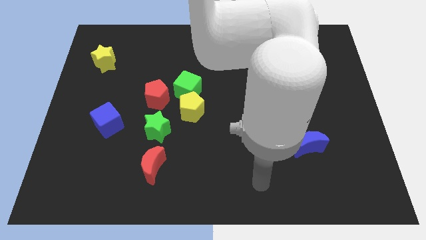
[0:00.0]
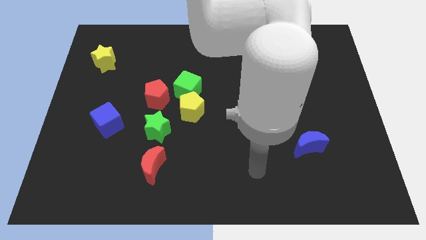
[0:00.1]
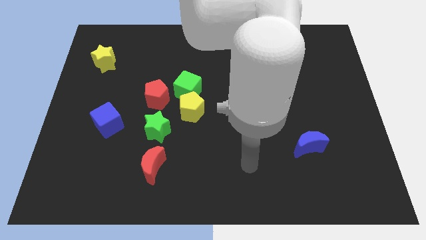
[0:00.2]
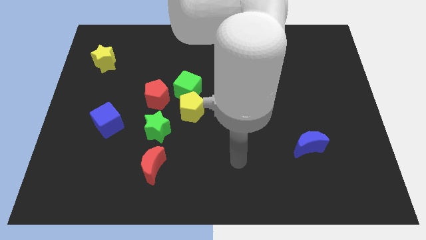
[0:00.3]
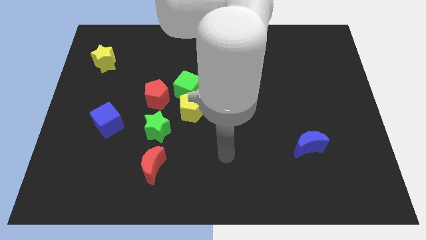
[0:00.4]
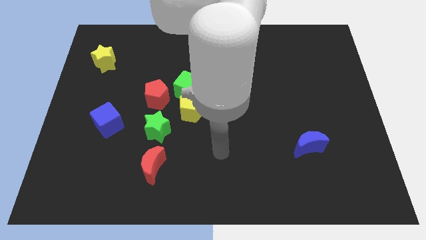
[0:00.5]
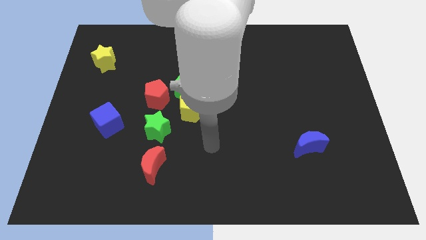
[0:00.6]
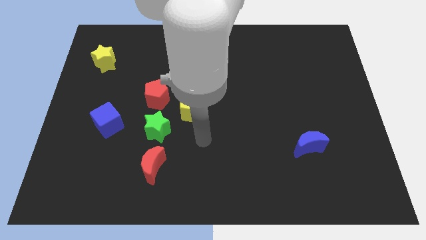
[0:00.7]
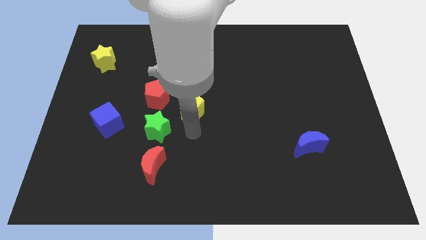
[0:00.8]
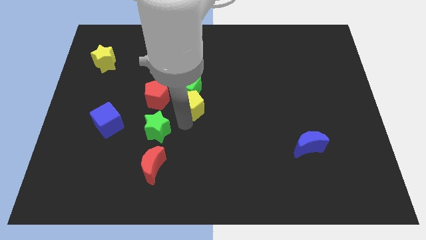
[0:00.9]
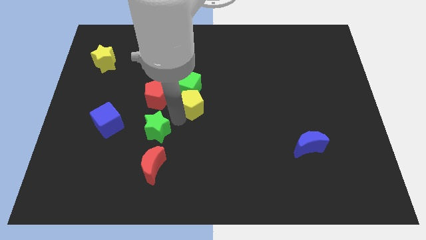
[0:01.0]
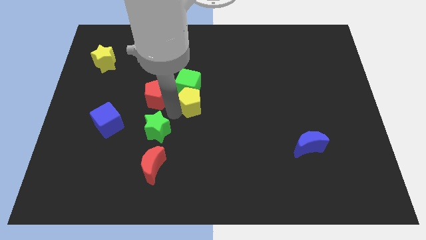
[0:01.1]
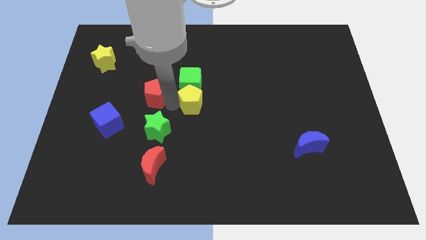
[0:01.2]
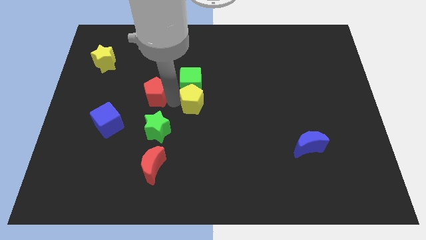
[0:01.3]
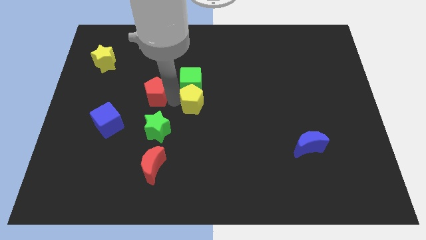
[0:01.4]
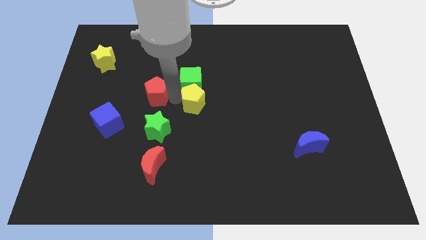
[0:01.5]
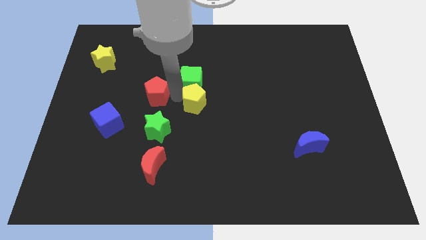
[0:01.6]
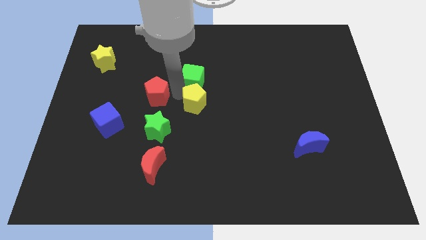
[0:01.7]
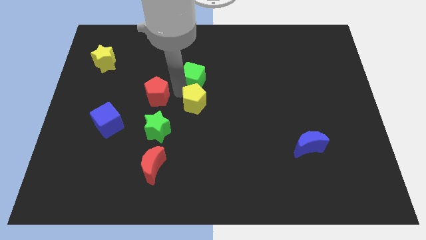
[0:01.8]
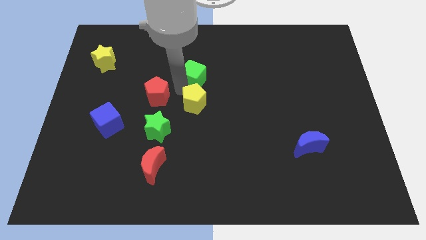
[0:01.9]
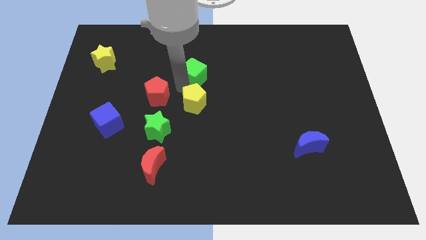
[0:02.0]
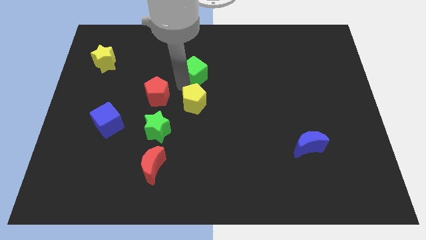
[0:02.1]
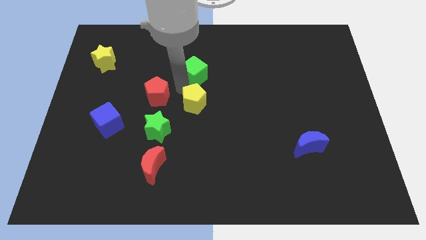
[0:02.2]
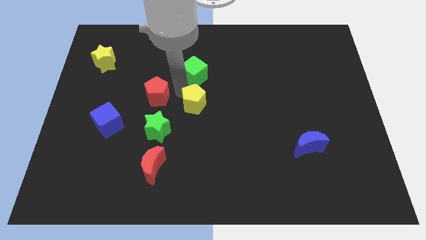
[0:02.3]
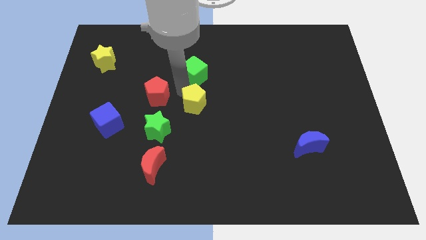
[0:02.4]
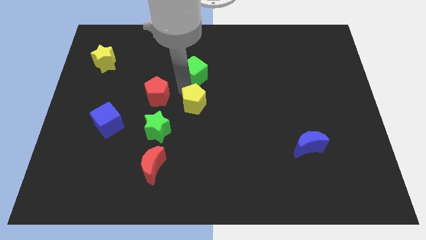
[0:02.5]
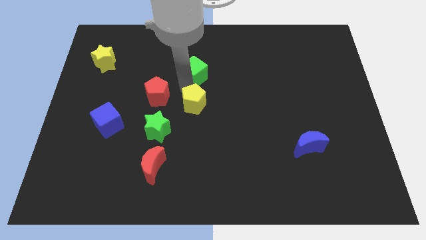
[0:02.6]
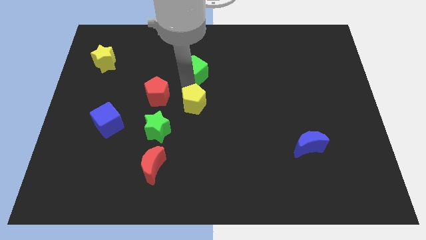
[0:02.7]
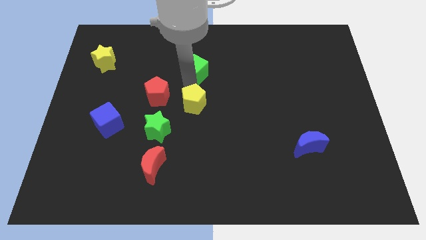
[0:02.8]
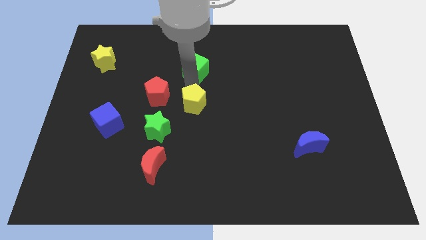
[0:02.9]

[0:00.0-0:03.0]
pull the green cube apart from the yellow pentagon and red pentagon

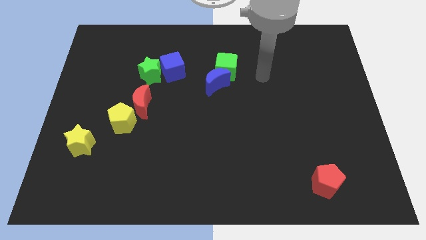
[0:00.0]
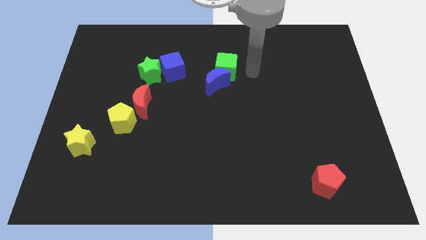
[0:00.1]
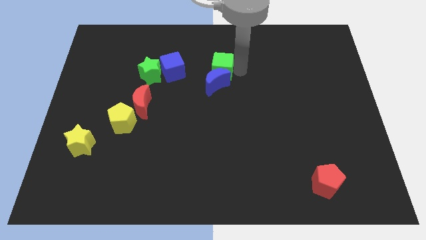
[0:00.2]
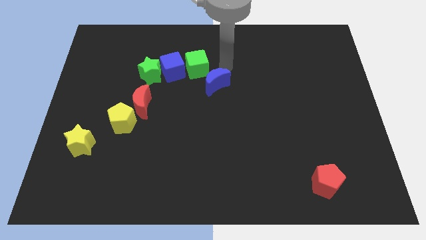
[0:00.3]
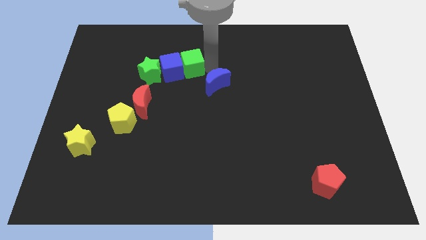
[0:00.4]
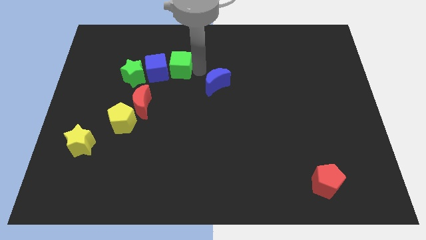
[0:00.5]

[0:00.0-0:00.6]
pull the blue moon apart from the green cube

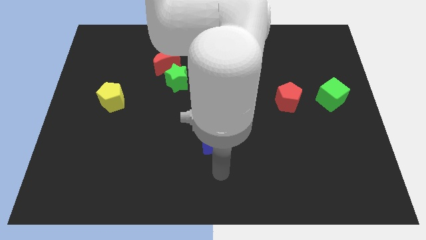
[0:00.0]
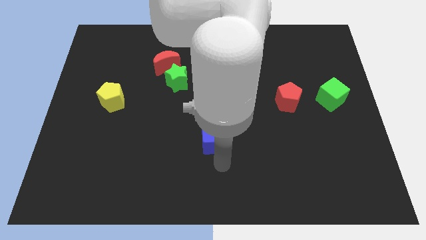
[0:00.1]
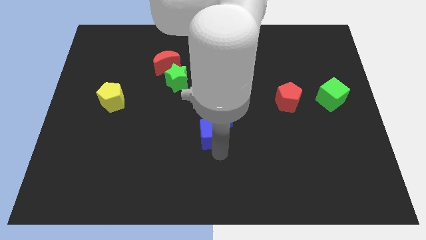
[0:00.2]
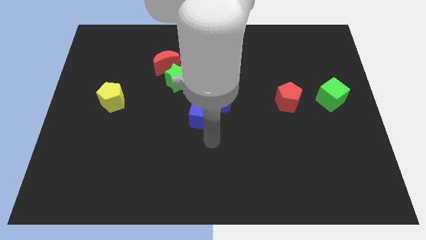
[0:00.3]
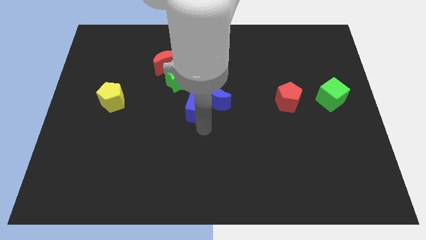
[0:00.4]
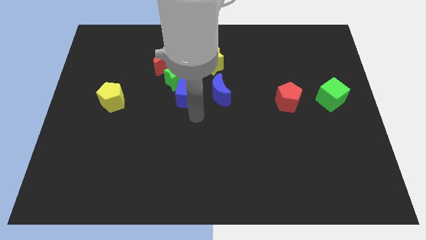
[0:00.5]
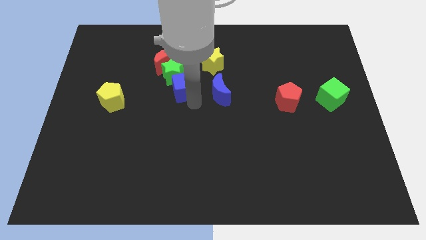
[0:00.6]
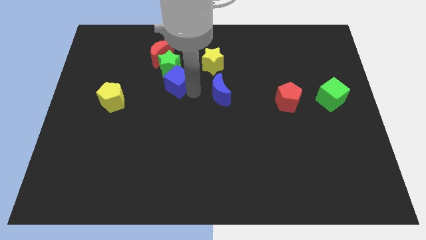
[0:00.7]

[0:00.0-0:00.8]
pull the blue moon apart from the blue cube

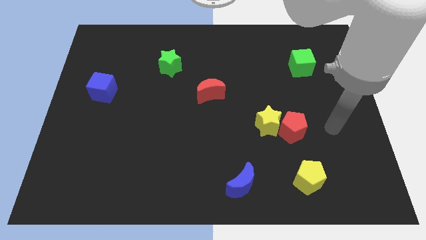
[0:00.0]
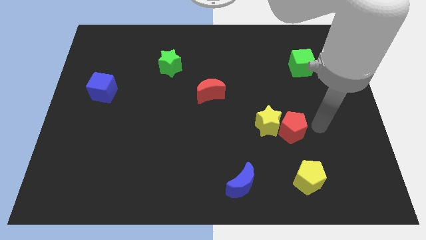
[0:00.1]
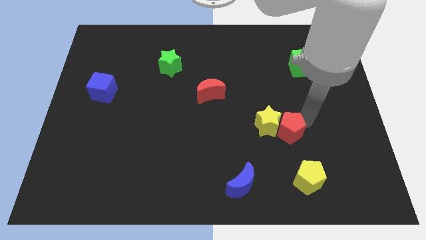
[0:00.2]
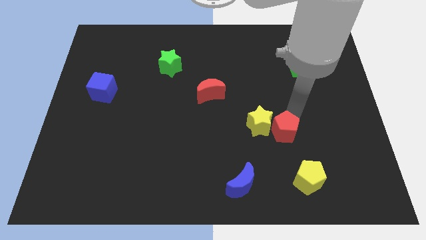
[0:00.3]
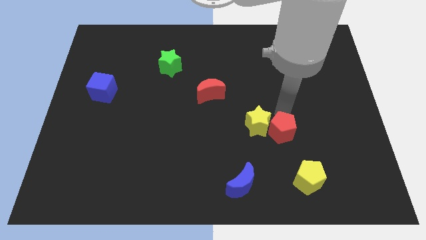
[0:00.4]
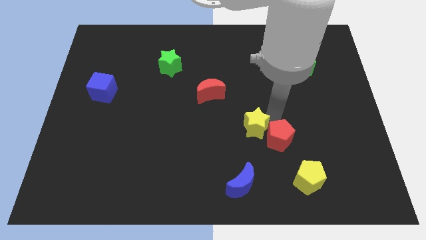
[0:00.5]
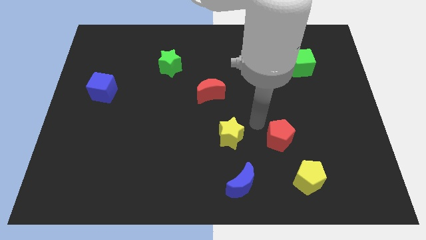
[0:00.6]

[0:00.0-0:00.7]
move the red pentagon away from the yellow star

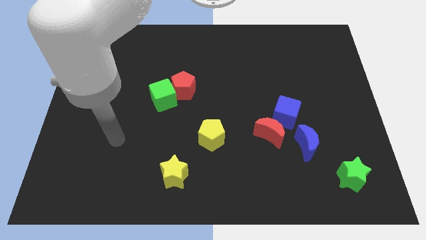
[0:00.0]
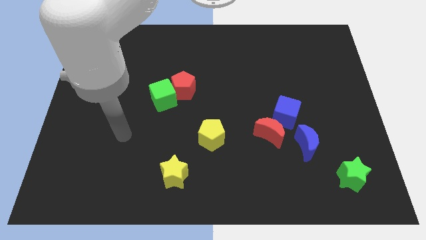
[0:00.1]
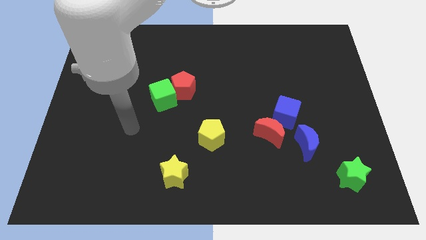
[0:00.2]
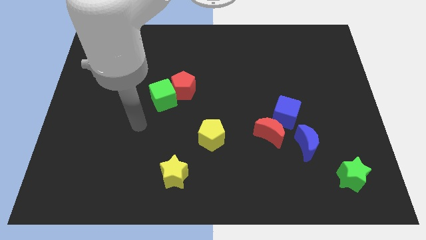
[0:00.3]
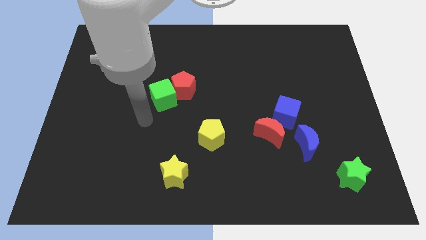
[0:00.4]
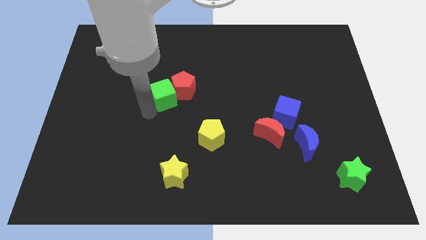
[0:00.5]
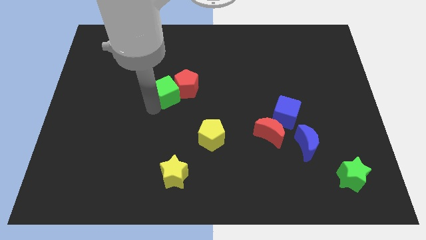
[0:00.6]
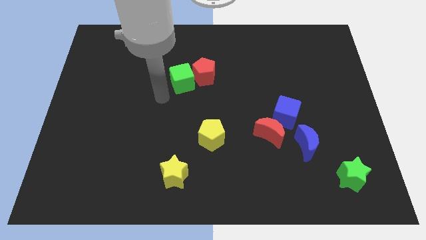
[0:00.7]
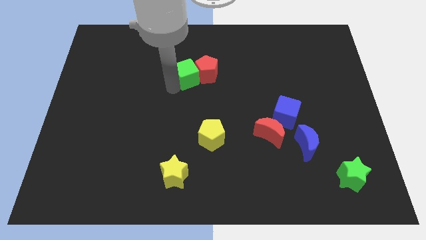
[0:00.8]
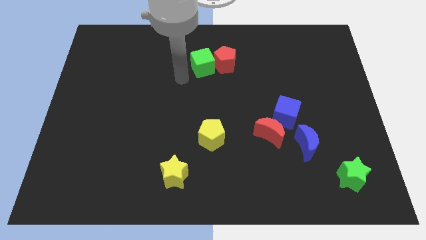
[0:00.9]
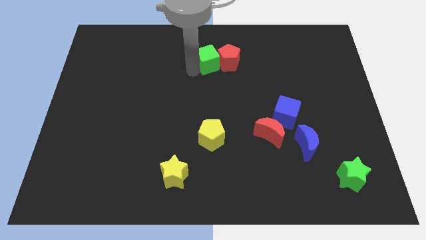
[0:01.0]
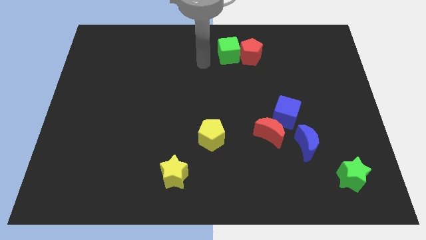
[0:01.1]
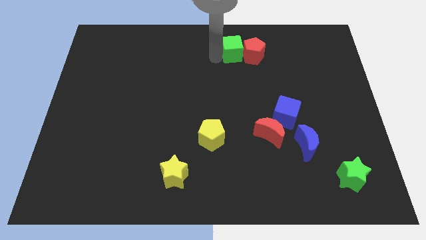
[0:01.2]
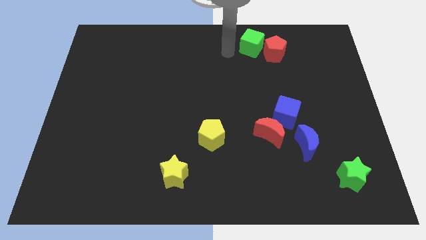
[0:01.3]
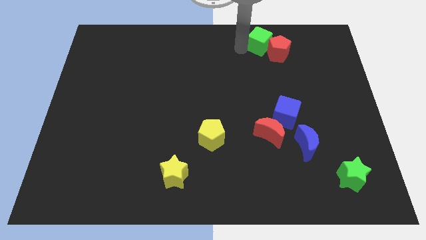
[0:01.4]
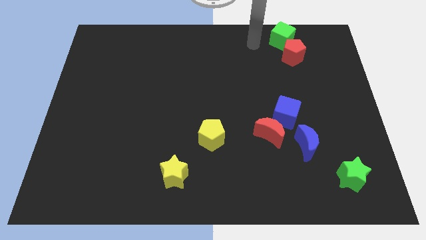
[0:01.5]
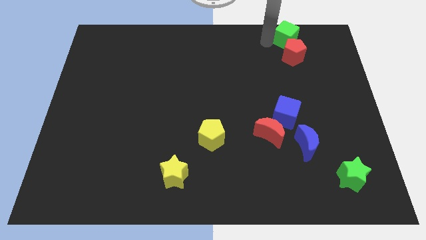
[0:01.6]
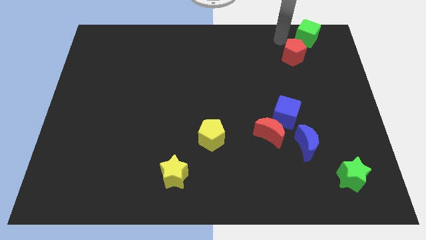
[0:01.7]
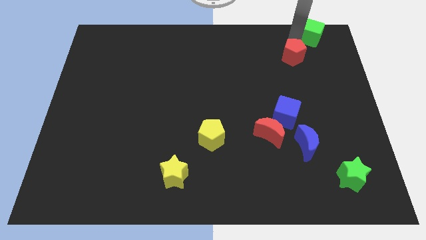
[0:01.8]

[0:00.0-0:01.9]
pull the red pentagon apart from the green cube

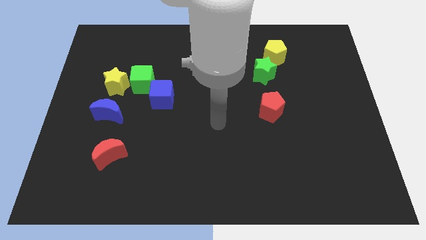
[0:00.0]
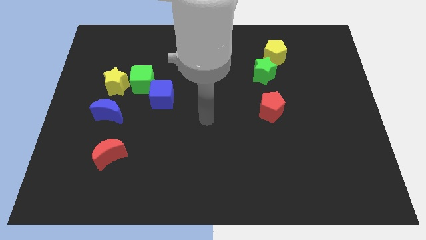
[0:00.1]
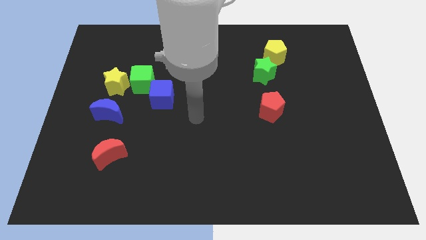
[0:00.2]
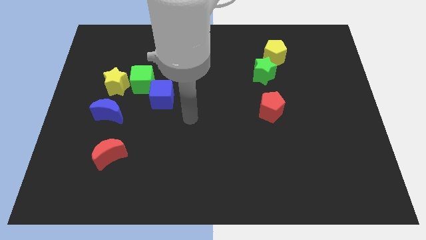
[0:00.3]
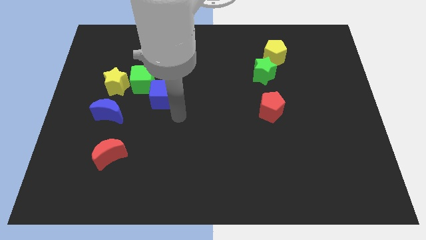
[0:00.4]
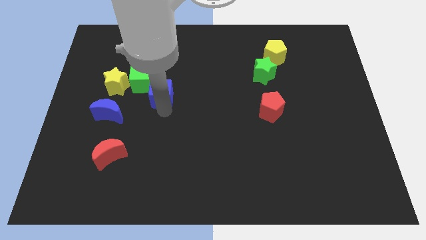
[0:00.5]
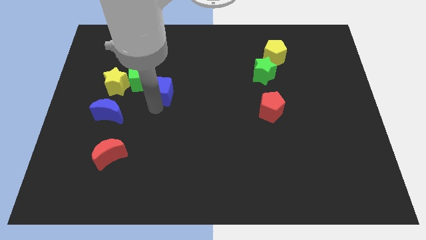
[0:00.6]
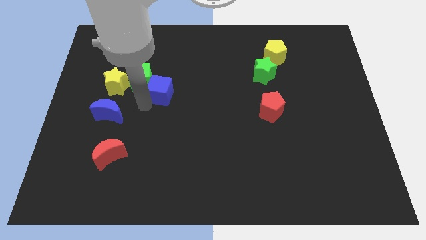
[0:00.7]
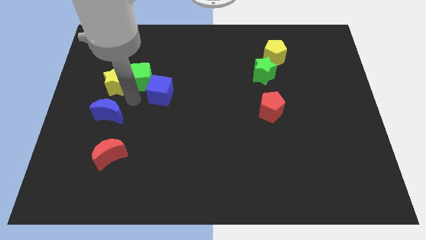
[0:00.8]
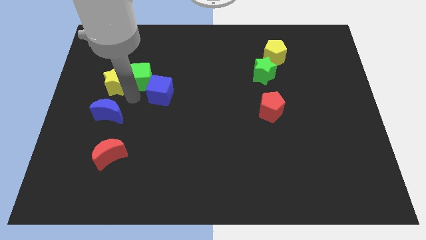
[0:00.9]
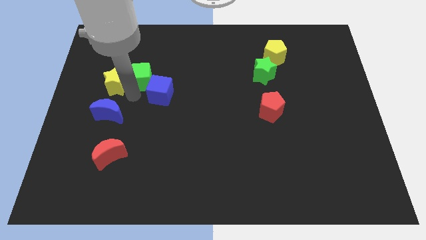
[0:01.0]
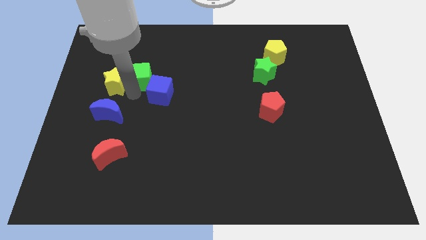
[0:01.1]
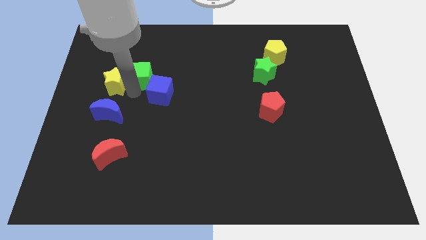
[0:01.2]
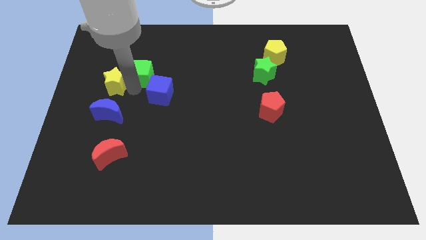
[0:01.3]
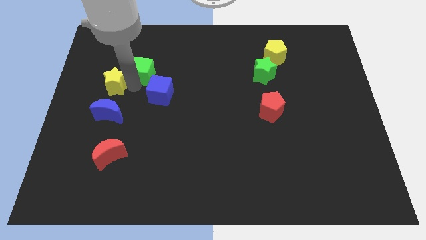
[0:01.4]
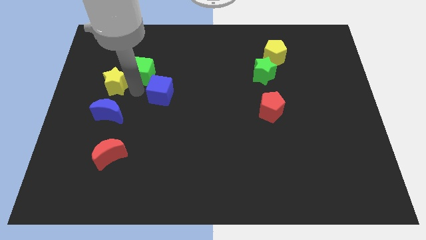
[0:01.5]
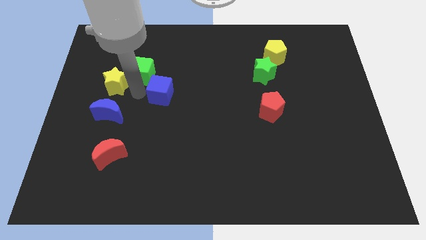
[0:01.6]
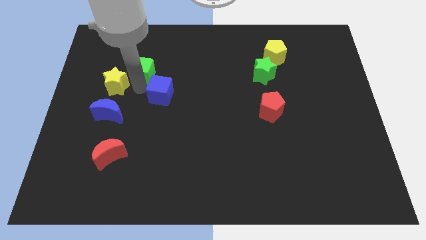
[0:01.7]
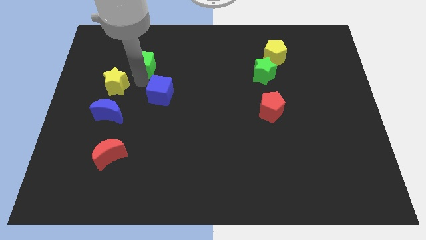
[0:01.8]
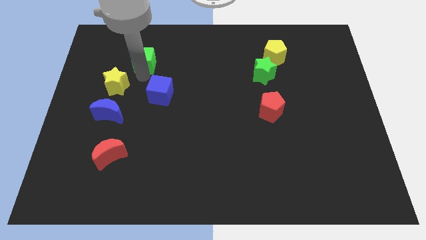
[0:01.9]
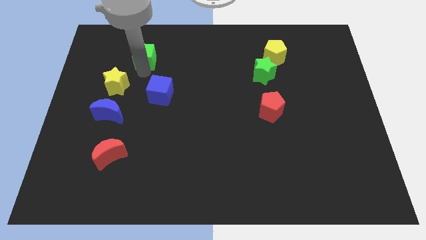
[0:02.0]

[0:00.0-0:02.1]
separate the green cube from the yellow star and blue cube

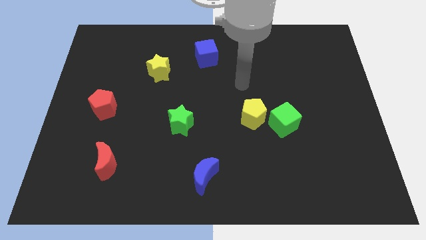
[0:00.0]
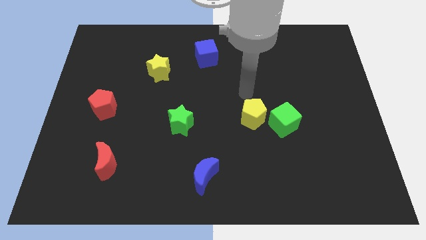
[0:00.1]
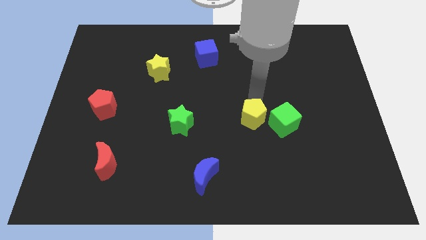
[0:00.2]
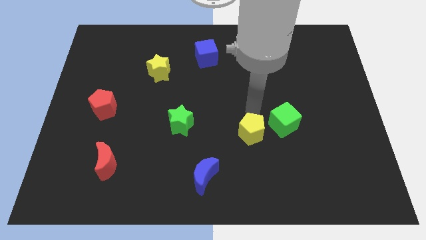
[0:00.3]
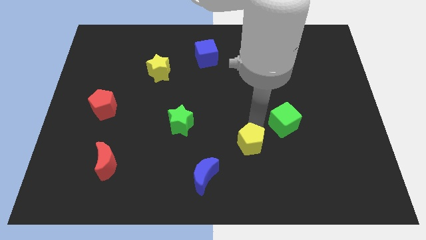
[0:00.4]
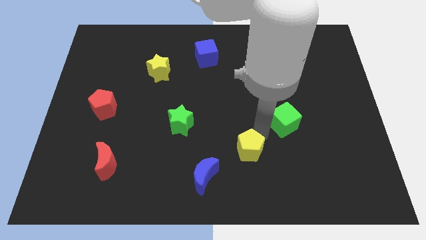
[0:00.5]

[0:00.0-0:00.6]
move the green cube away from the yellow pentagon
